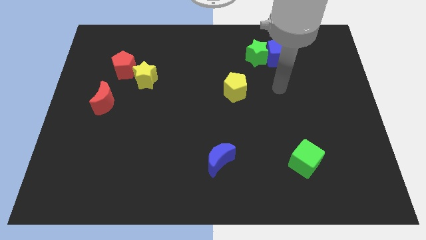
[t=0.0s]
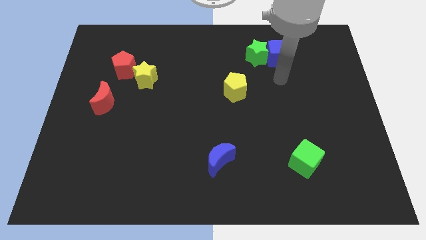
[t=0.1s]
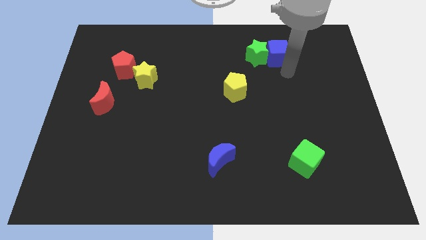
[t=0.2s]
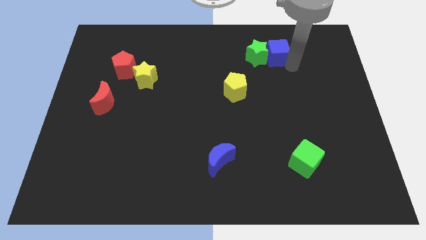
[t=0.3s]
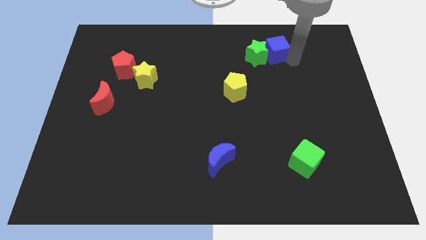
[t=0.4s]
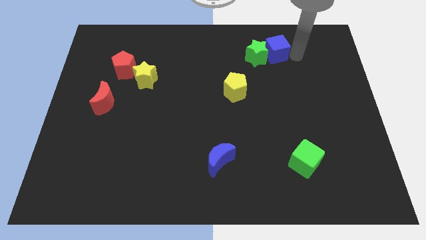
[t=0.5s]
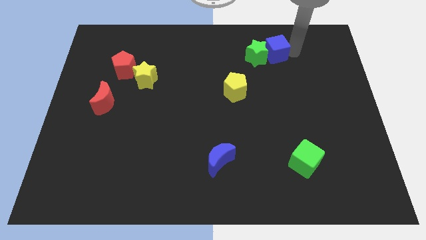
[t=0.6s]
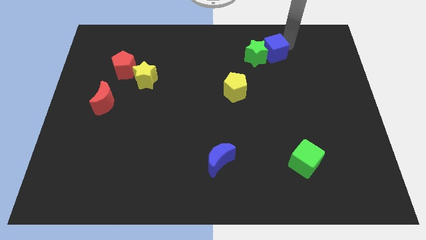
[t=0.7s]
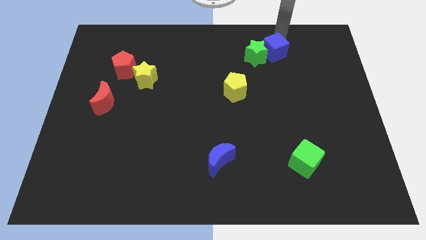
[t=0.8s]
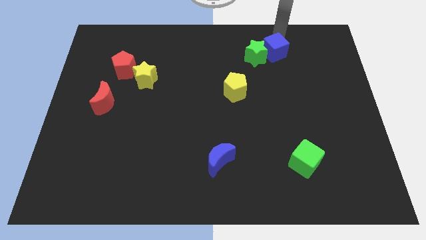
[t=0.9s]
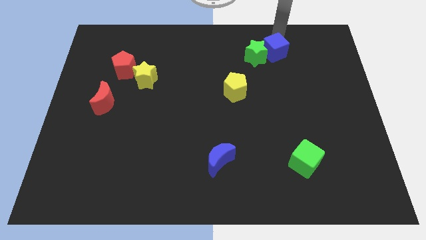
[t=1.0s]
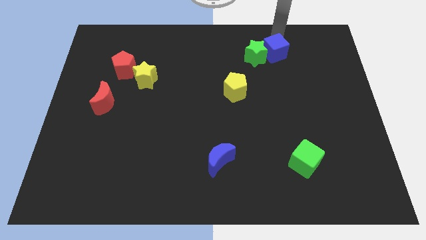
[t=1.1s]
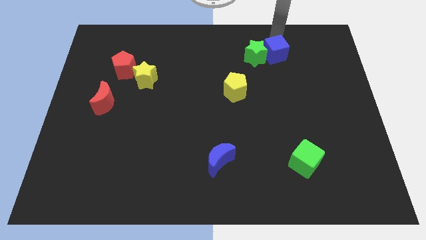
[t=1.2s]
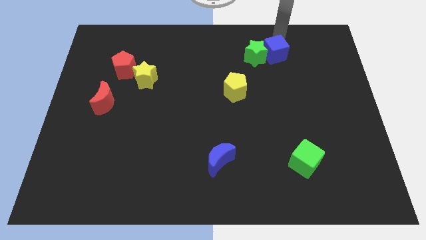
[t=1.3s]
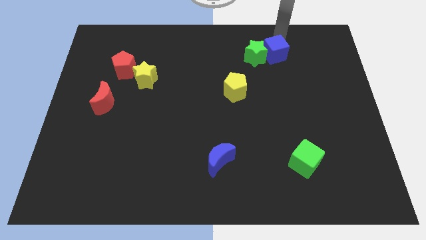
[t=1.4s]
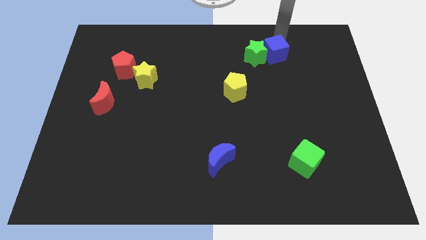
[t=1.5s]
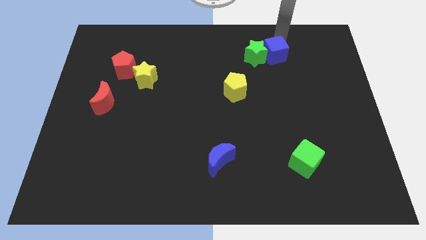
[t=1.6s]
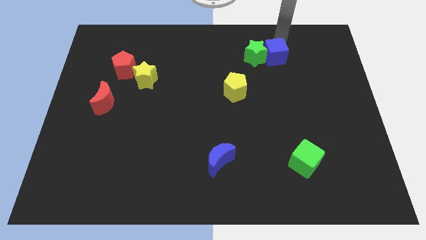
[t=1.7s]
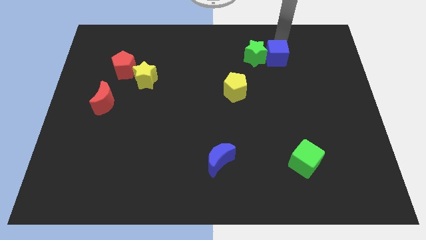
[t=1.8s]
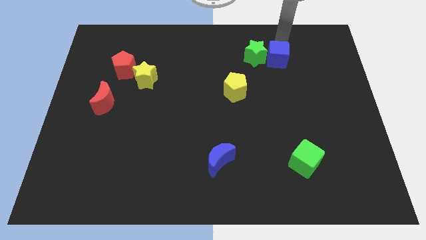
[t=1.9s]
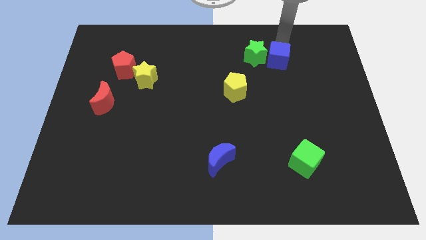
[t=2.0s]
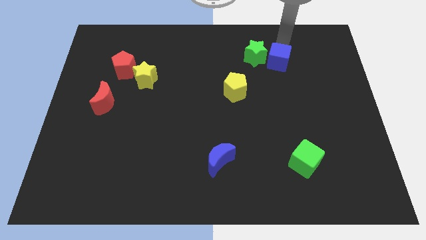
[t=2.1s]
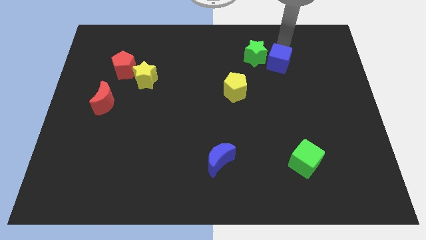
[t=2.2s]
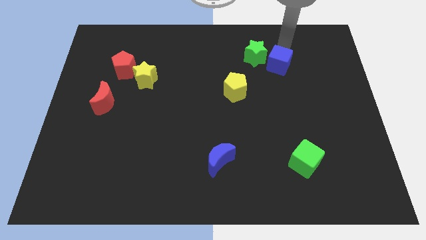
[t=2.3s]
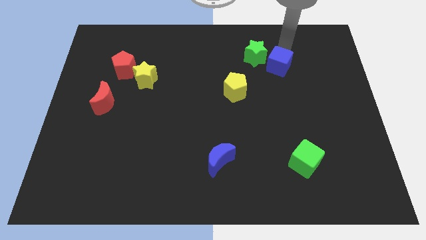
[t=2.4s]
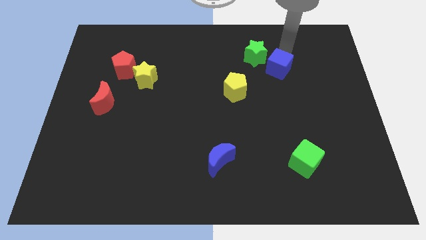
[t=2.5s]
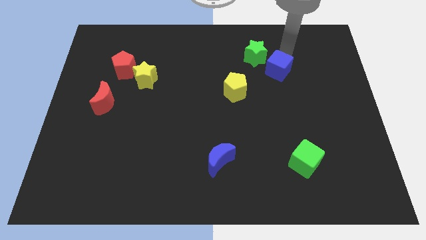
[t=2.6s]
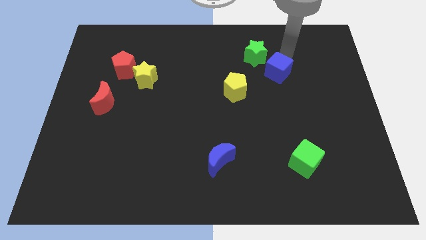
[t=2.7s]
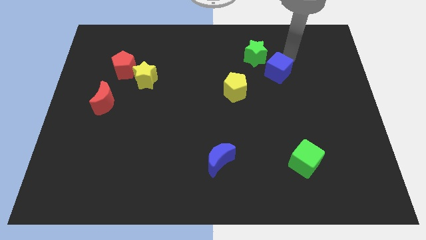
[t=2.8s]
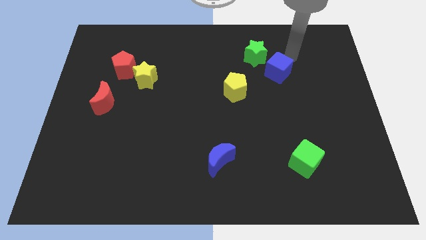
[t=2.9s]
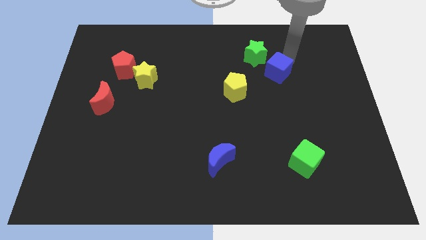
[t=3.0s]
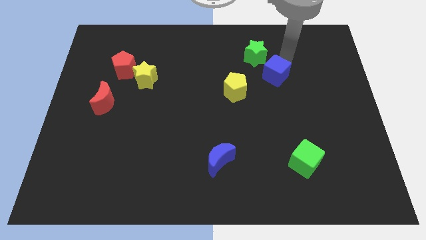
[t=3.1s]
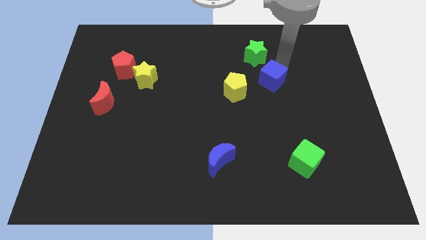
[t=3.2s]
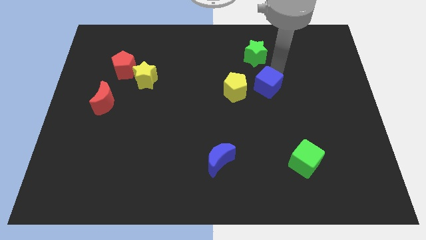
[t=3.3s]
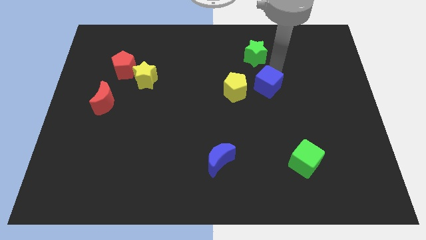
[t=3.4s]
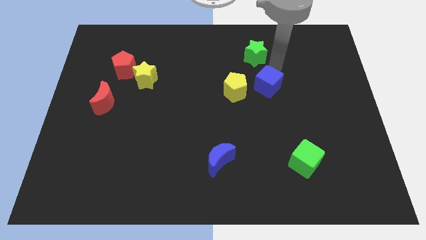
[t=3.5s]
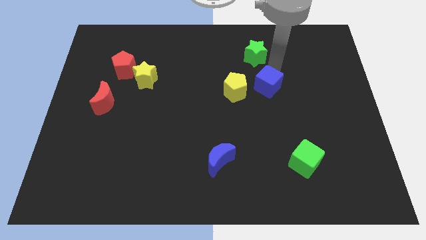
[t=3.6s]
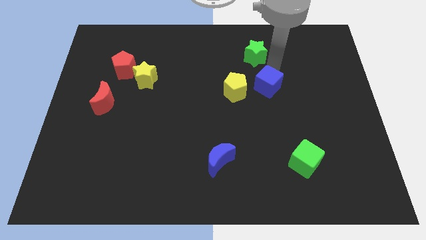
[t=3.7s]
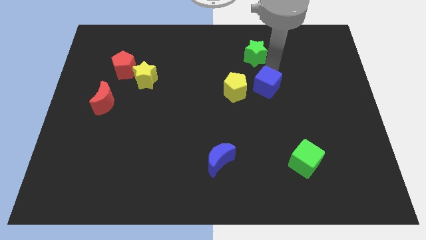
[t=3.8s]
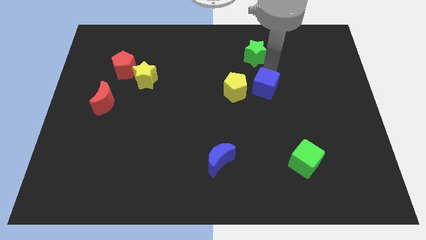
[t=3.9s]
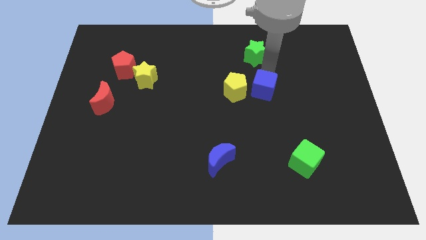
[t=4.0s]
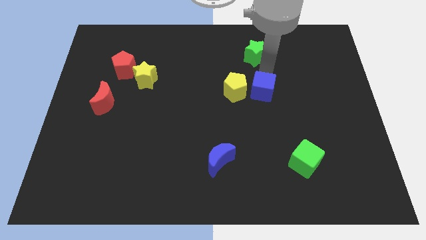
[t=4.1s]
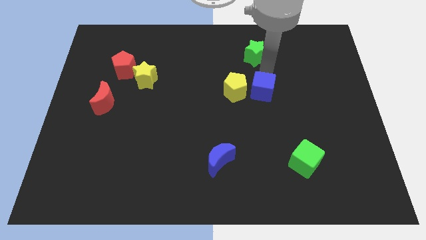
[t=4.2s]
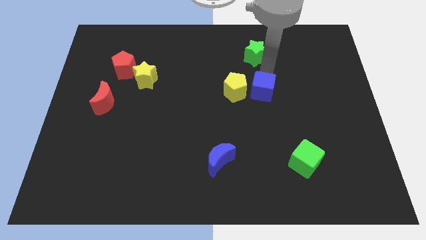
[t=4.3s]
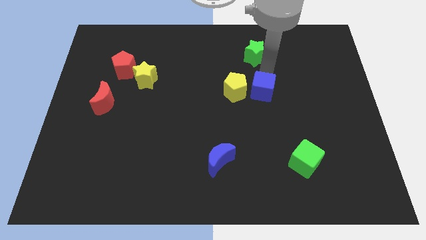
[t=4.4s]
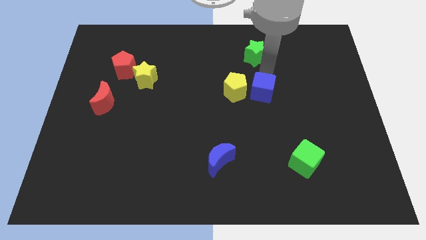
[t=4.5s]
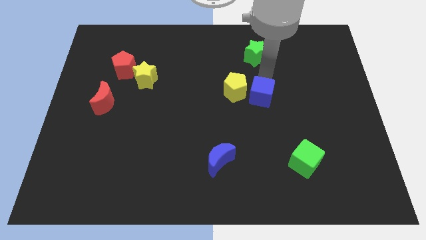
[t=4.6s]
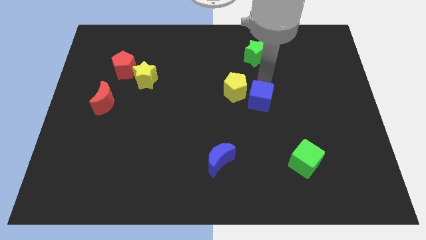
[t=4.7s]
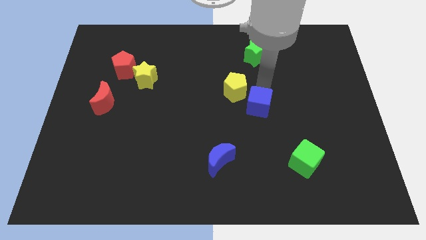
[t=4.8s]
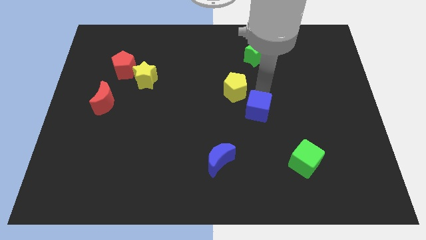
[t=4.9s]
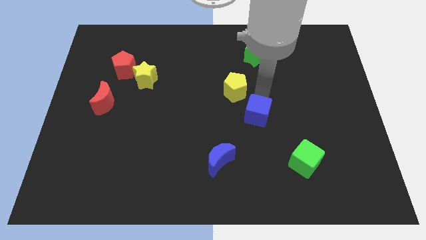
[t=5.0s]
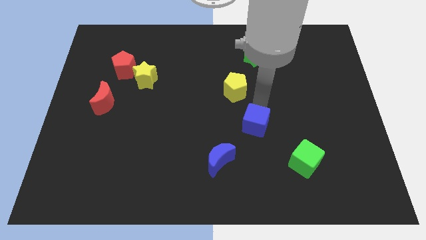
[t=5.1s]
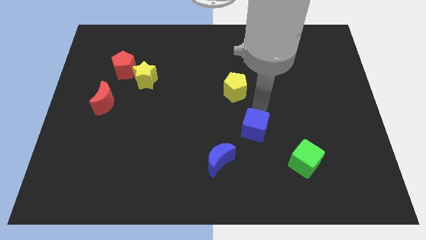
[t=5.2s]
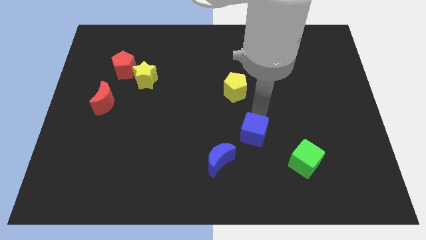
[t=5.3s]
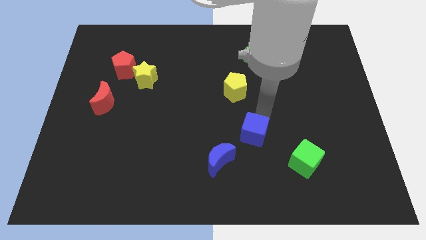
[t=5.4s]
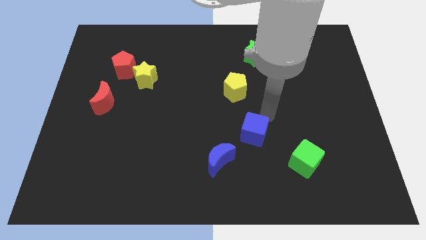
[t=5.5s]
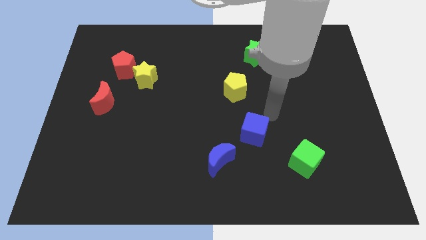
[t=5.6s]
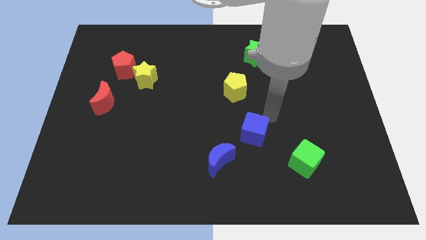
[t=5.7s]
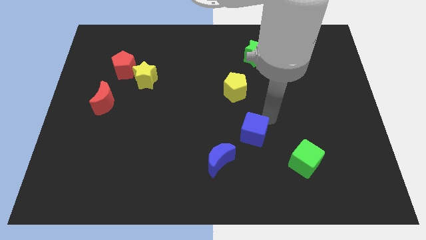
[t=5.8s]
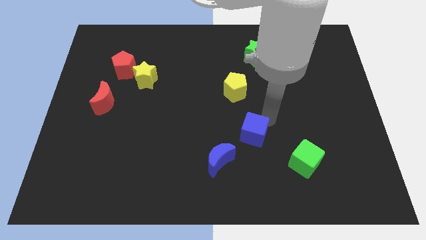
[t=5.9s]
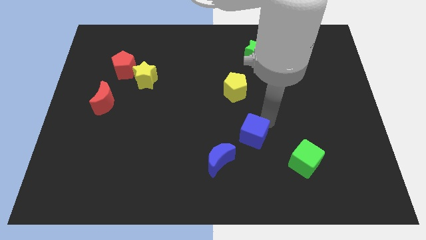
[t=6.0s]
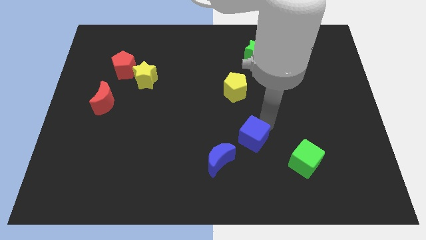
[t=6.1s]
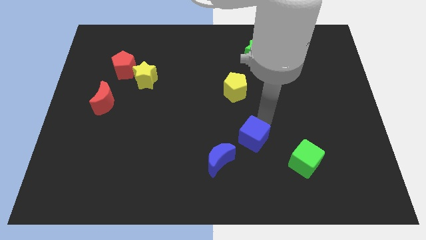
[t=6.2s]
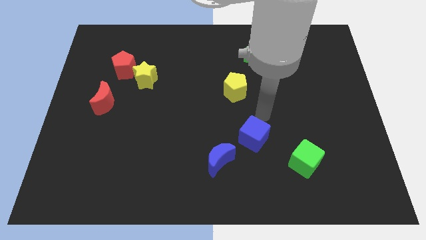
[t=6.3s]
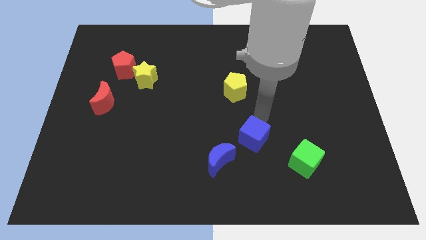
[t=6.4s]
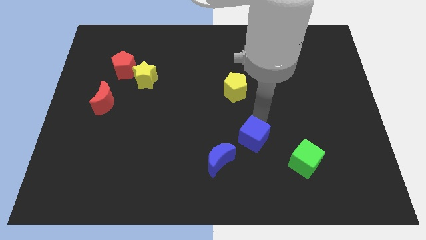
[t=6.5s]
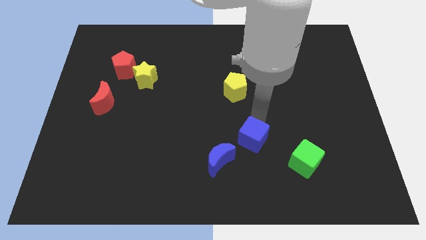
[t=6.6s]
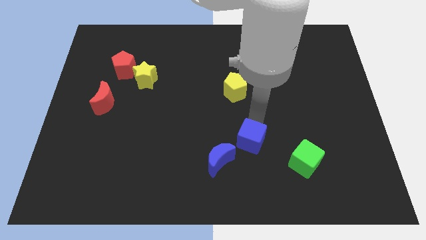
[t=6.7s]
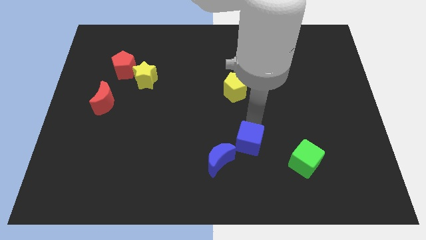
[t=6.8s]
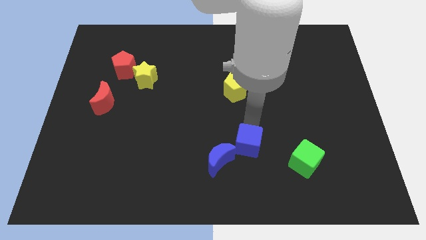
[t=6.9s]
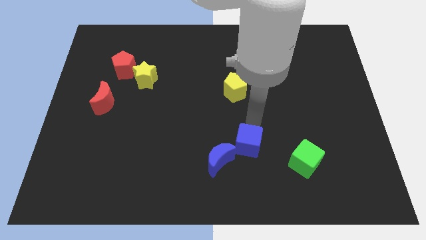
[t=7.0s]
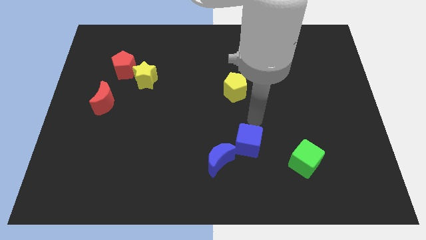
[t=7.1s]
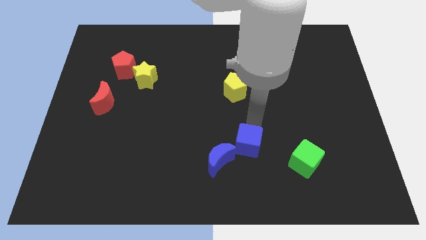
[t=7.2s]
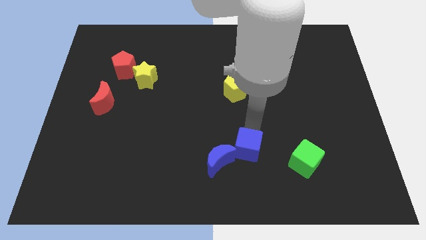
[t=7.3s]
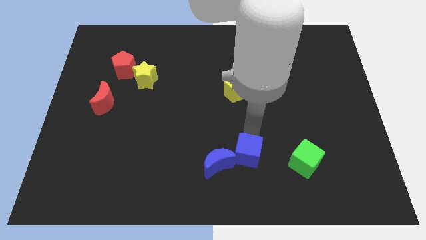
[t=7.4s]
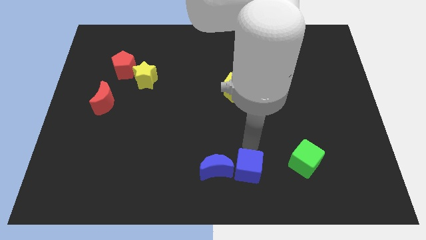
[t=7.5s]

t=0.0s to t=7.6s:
move the blue cube to the bottom side
